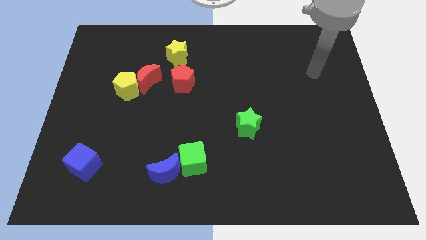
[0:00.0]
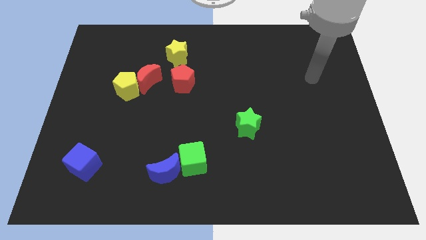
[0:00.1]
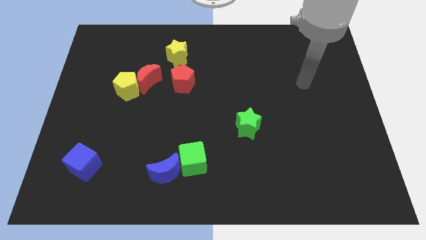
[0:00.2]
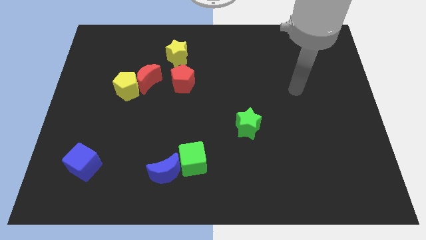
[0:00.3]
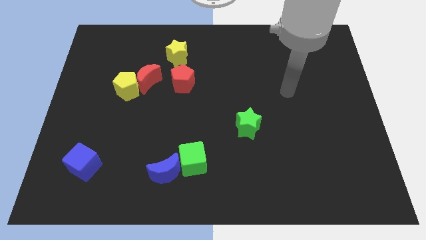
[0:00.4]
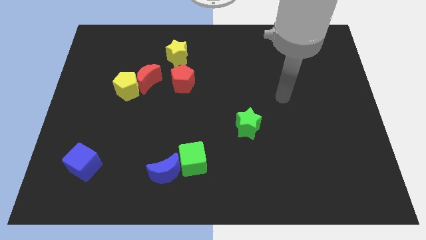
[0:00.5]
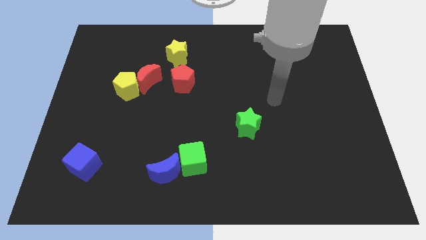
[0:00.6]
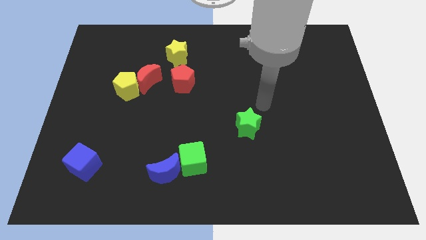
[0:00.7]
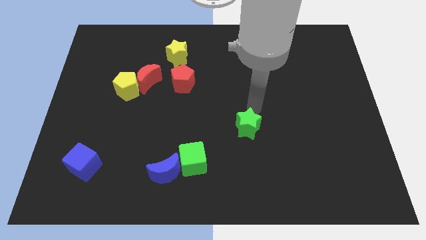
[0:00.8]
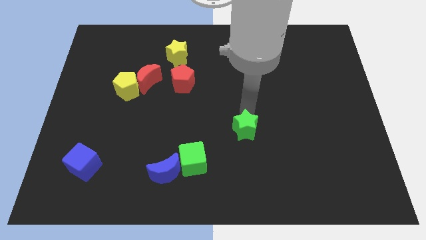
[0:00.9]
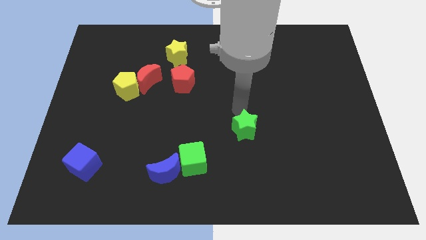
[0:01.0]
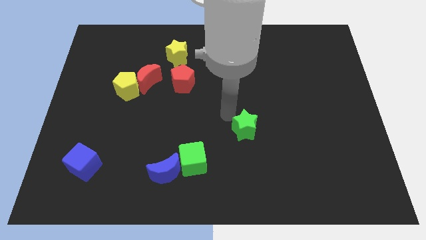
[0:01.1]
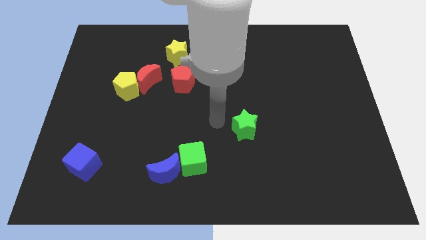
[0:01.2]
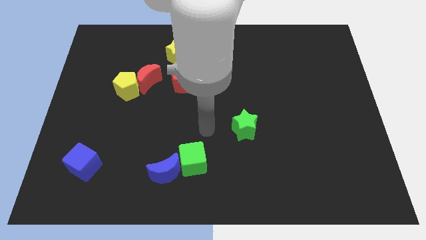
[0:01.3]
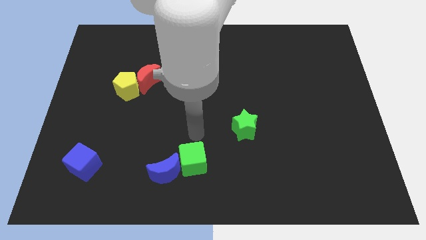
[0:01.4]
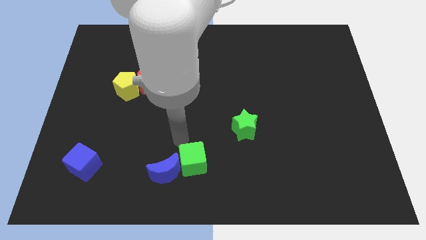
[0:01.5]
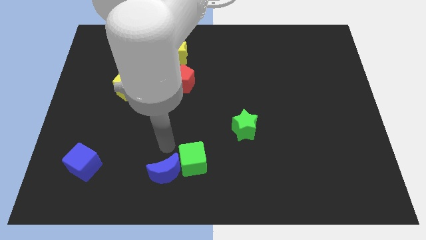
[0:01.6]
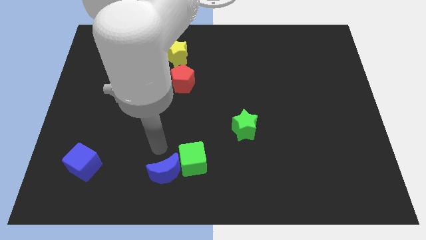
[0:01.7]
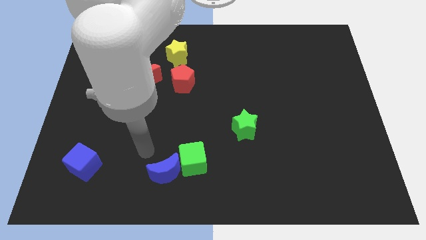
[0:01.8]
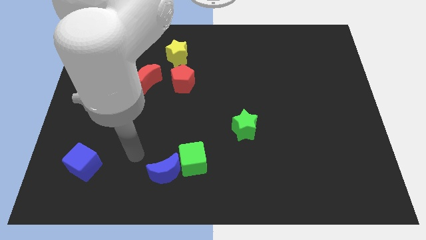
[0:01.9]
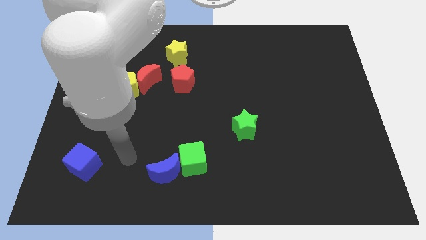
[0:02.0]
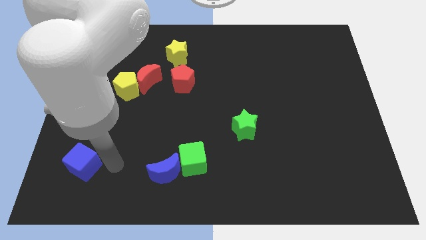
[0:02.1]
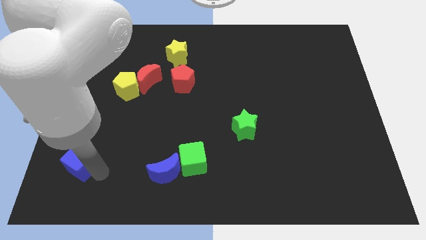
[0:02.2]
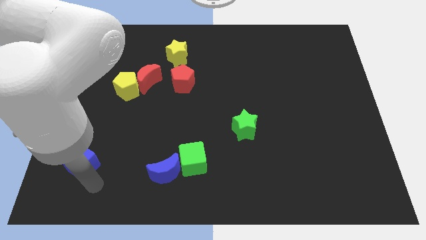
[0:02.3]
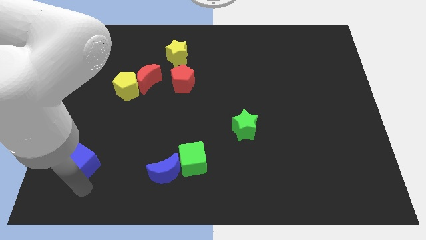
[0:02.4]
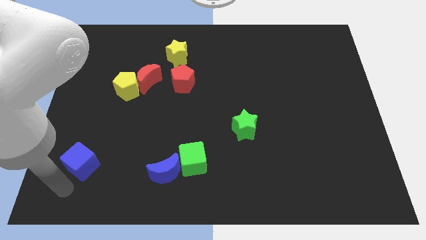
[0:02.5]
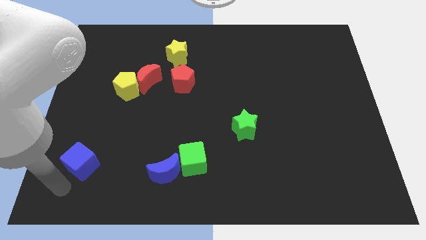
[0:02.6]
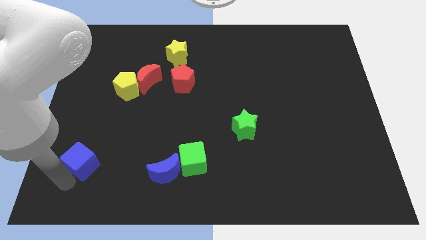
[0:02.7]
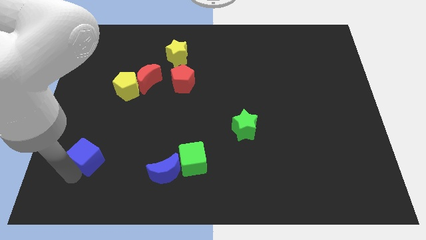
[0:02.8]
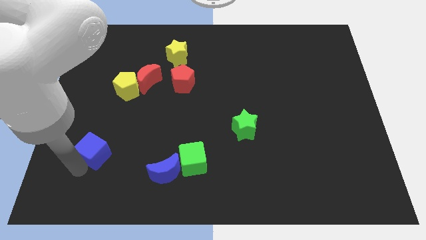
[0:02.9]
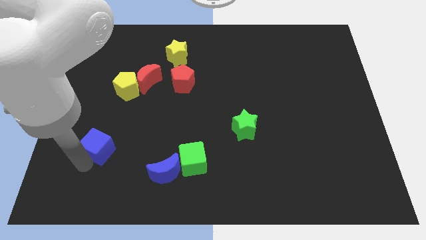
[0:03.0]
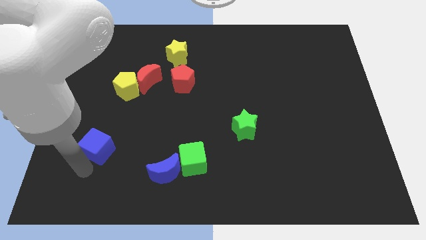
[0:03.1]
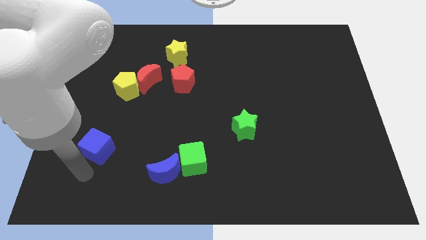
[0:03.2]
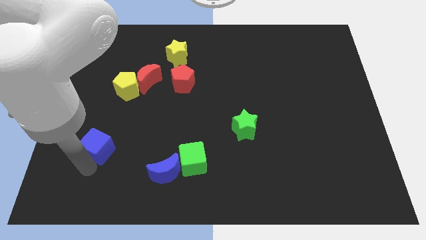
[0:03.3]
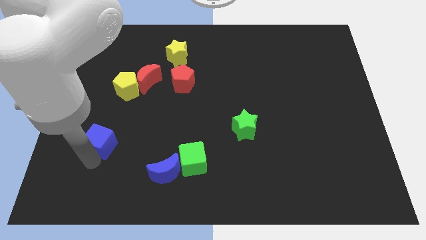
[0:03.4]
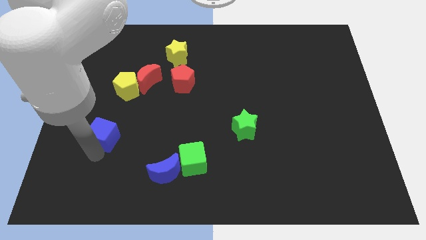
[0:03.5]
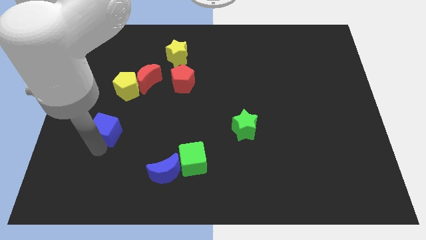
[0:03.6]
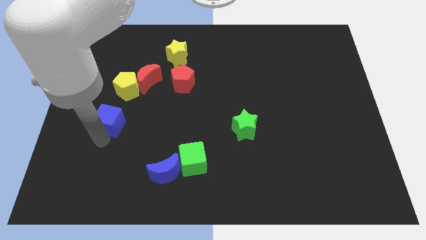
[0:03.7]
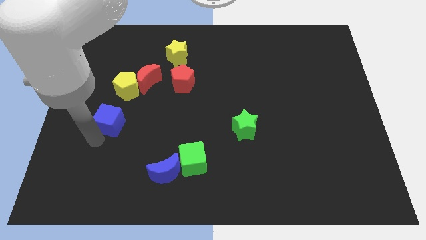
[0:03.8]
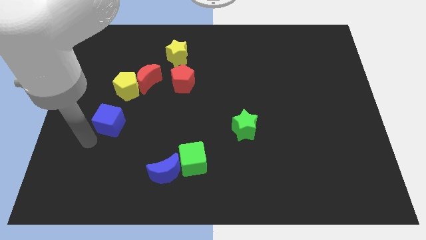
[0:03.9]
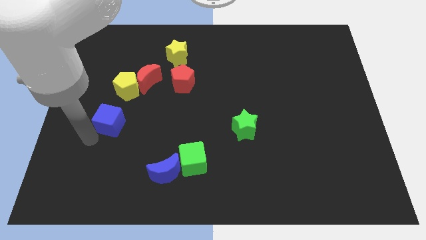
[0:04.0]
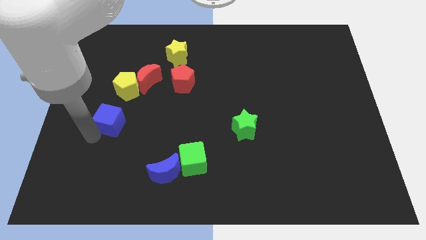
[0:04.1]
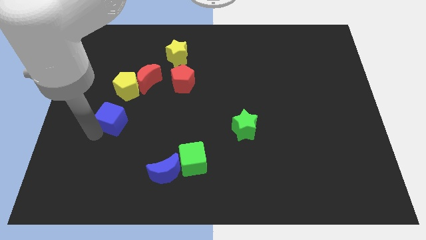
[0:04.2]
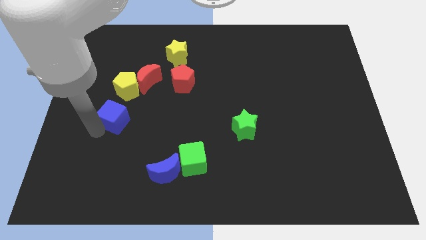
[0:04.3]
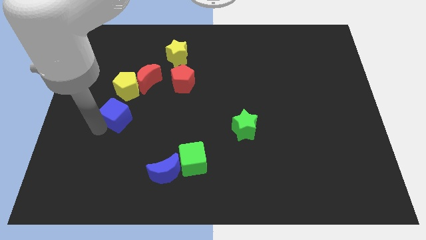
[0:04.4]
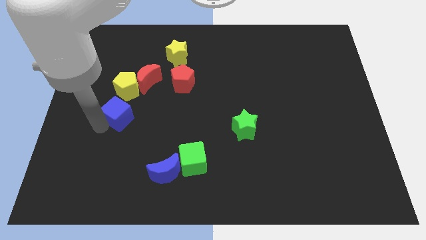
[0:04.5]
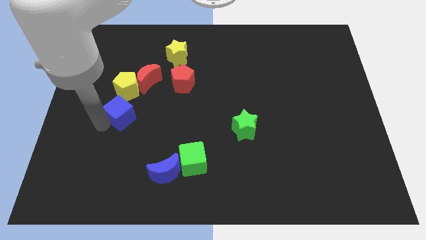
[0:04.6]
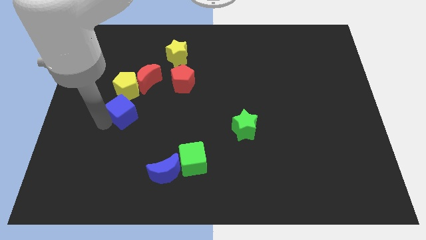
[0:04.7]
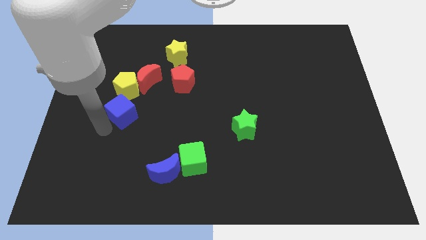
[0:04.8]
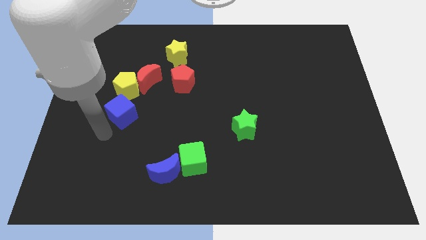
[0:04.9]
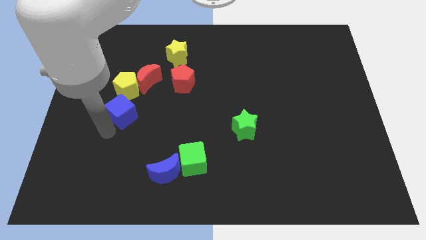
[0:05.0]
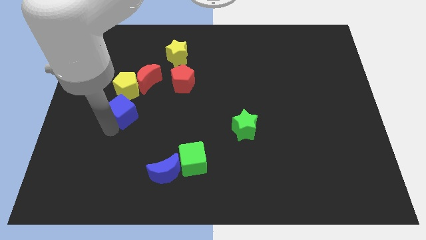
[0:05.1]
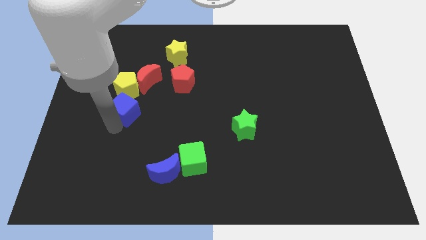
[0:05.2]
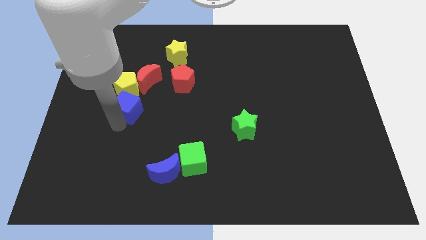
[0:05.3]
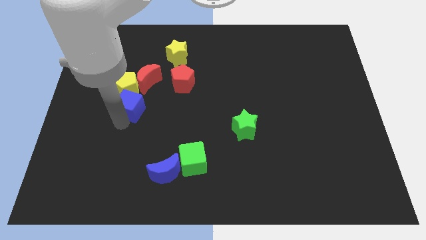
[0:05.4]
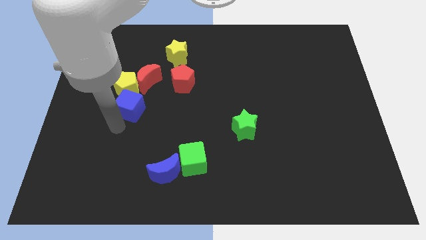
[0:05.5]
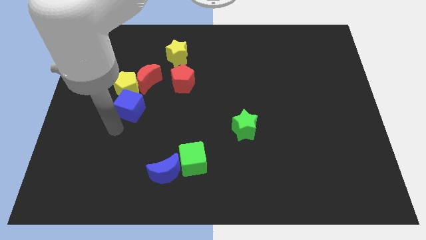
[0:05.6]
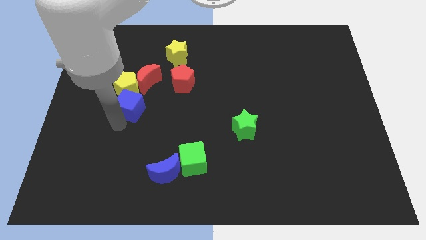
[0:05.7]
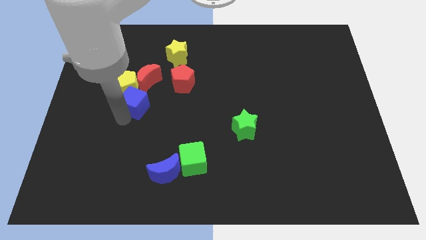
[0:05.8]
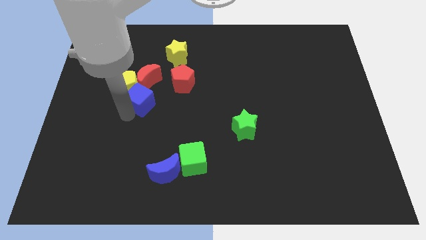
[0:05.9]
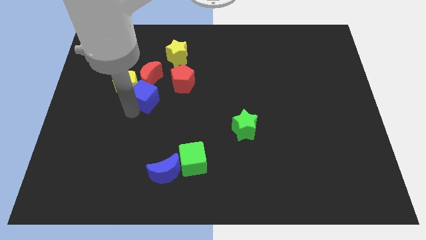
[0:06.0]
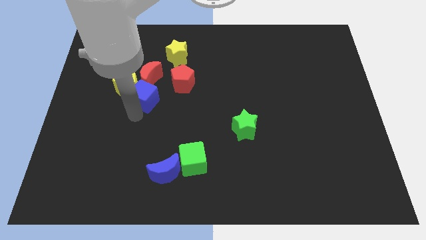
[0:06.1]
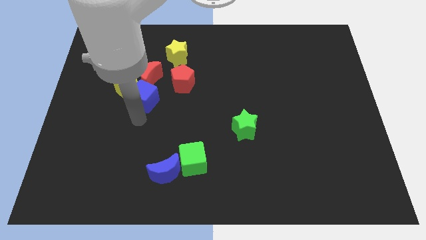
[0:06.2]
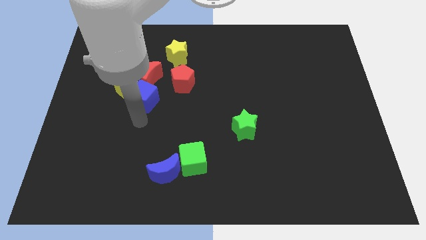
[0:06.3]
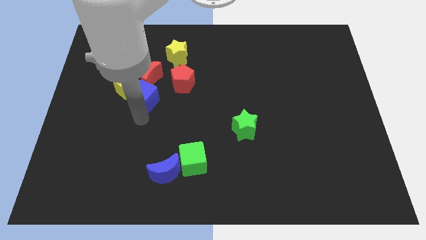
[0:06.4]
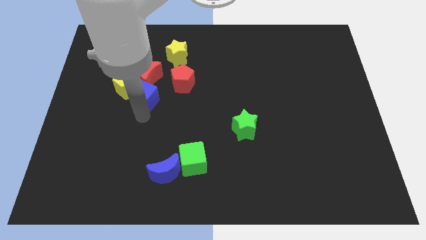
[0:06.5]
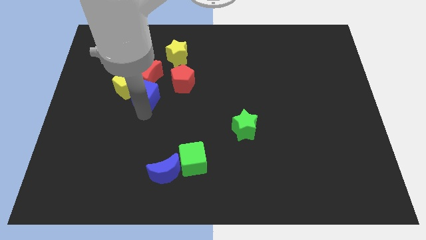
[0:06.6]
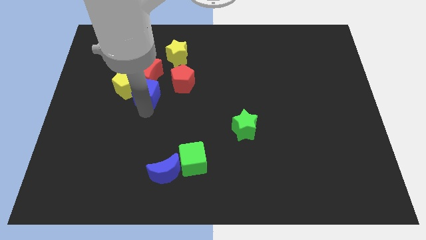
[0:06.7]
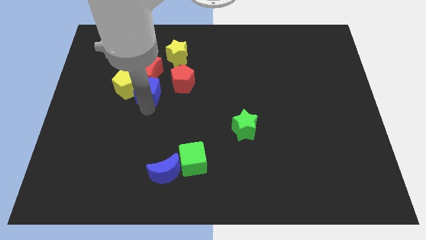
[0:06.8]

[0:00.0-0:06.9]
slide the blue cube close to the red moon

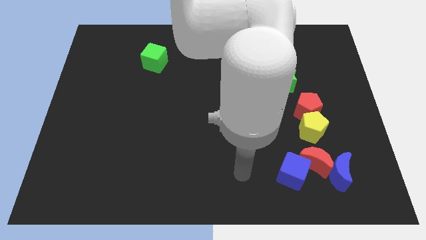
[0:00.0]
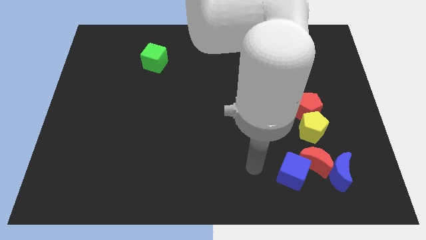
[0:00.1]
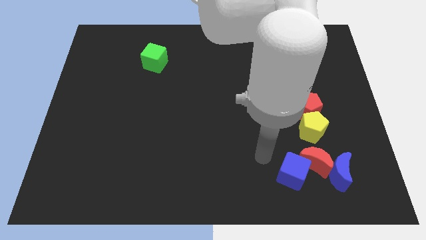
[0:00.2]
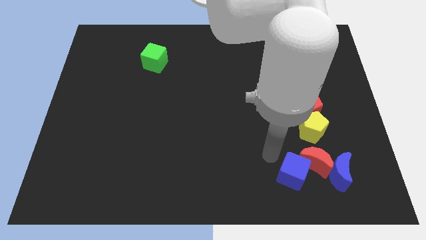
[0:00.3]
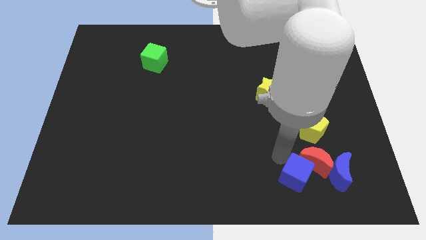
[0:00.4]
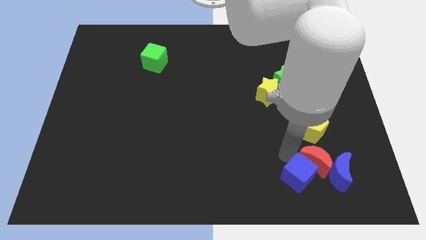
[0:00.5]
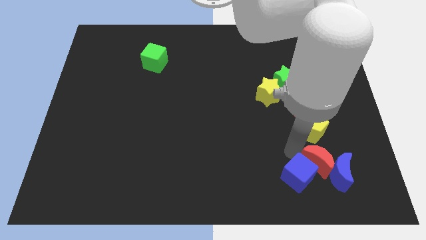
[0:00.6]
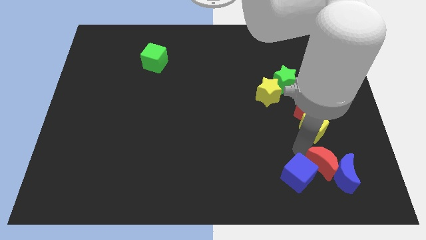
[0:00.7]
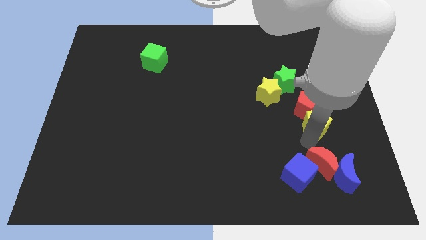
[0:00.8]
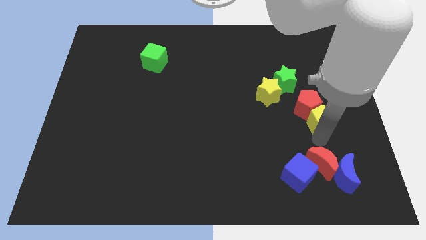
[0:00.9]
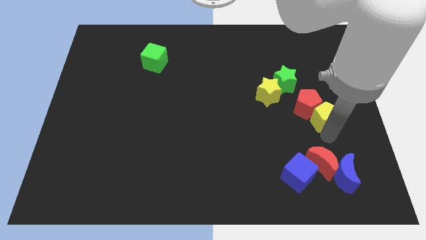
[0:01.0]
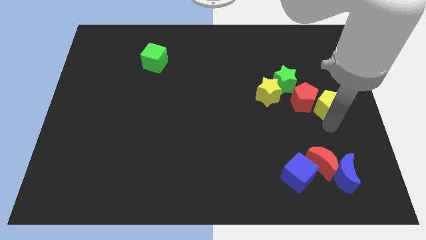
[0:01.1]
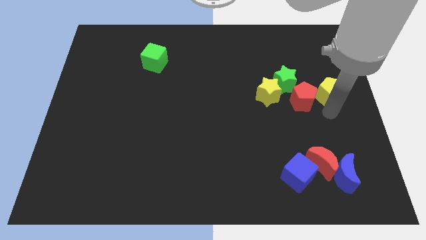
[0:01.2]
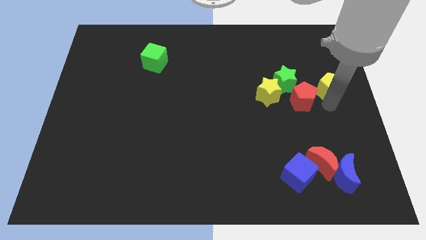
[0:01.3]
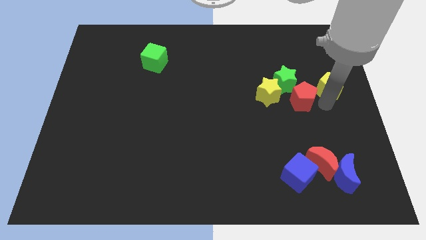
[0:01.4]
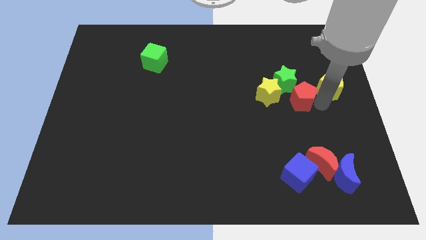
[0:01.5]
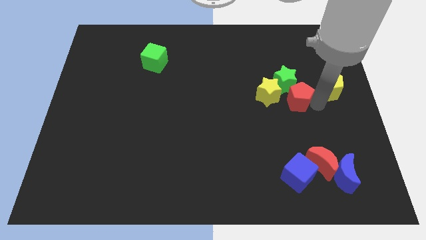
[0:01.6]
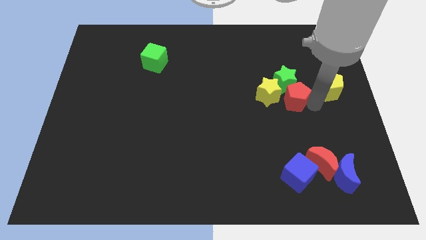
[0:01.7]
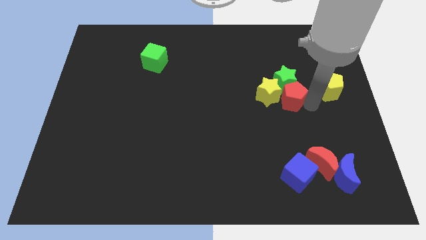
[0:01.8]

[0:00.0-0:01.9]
push the red pentagon towards the yellow star
